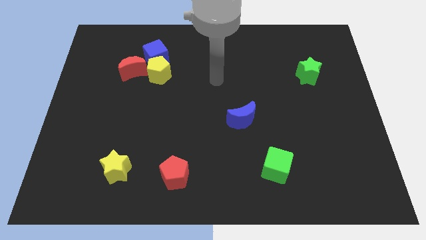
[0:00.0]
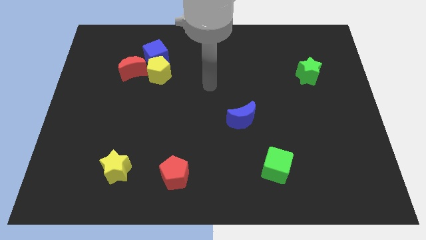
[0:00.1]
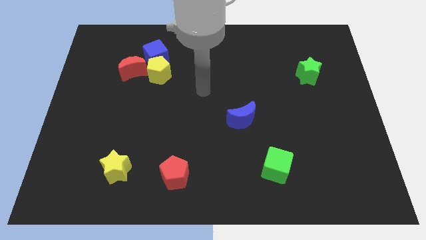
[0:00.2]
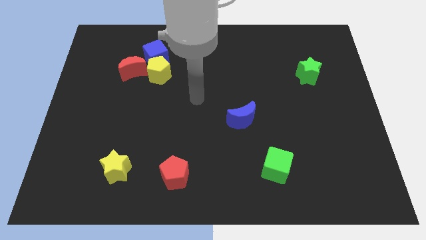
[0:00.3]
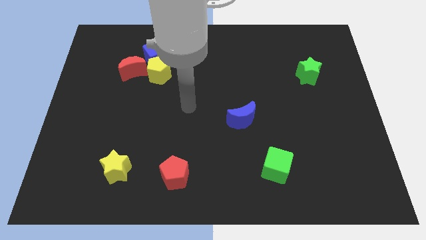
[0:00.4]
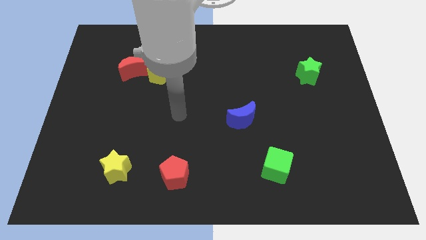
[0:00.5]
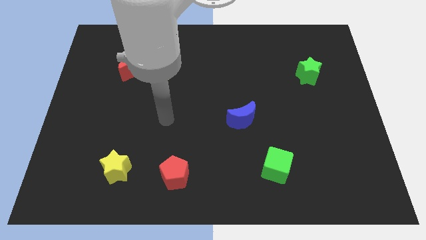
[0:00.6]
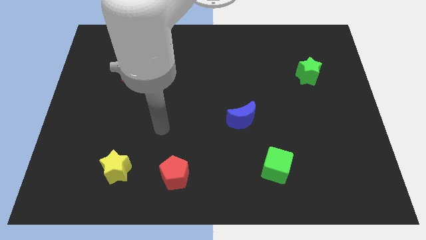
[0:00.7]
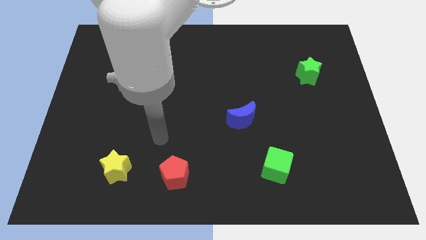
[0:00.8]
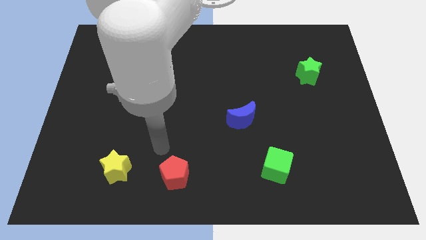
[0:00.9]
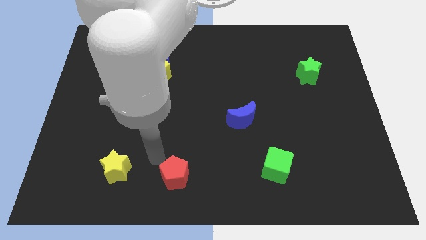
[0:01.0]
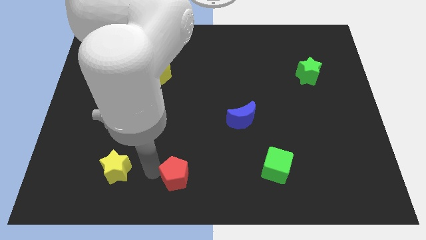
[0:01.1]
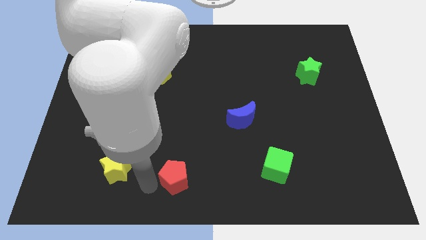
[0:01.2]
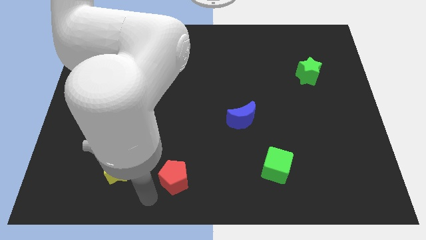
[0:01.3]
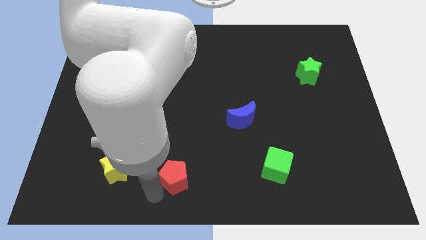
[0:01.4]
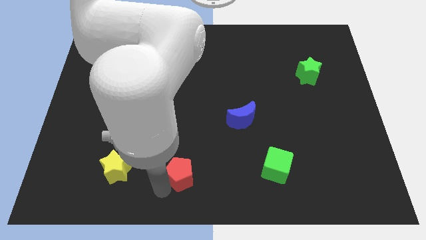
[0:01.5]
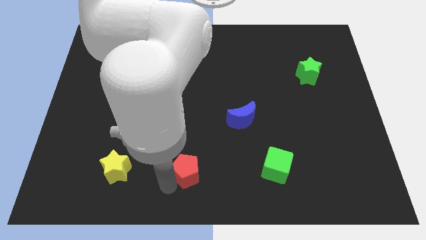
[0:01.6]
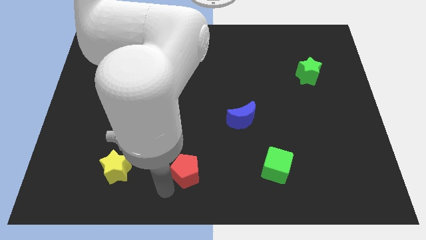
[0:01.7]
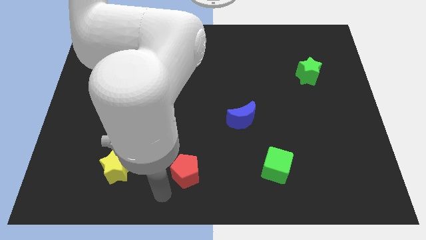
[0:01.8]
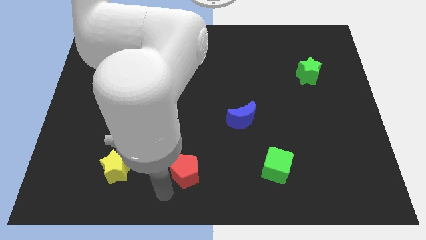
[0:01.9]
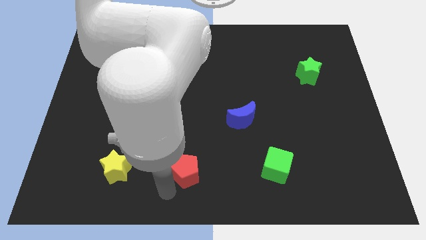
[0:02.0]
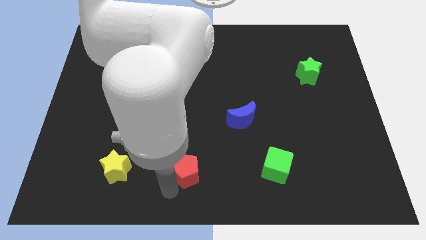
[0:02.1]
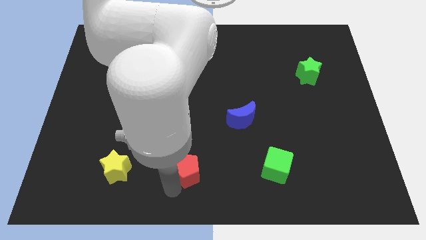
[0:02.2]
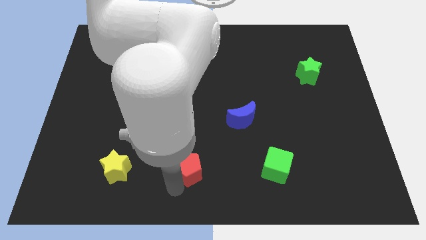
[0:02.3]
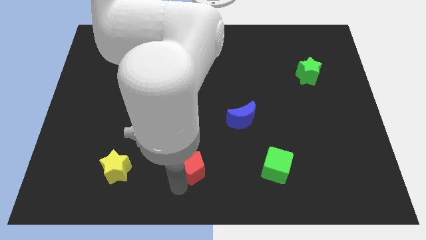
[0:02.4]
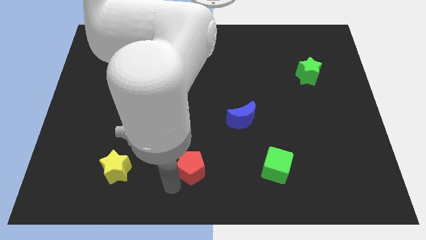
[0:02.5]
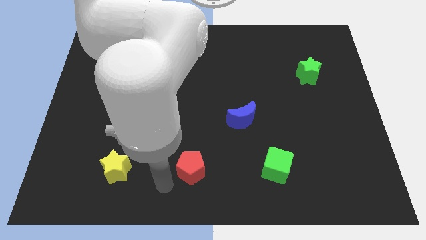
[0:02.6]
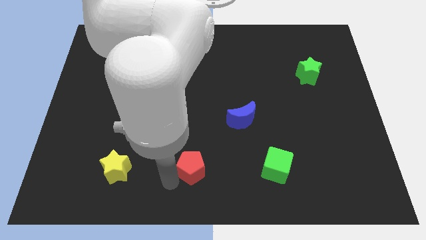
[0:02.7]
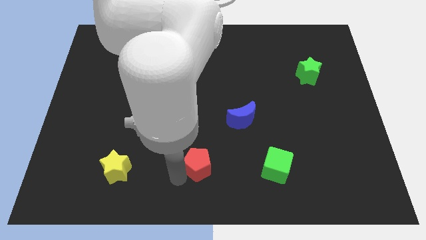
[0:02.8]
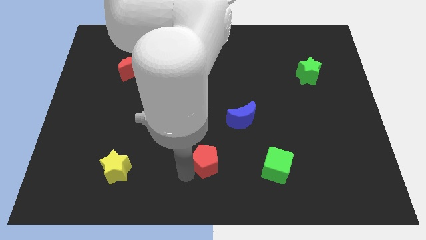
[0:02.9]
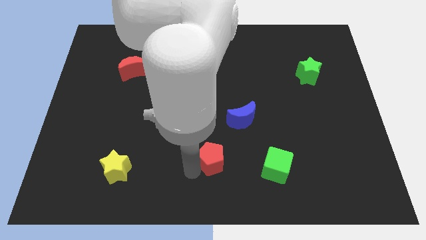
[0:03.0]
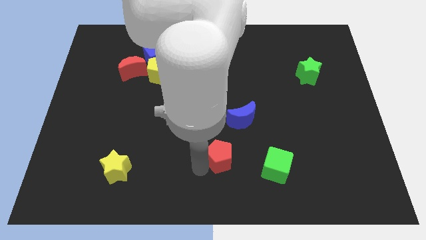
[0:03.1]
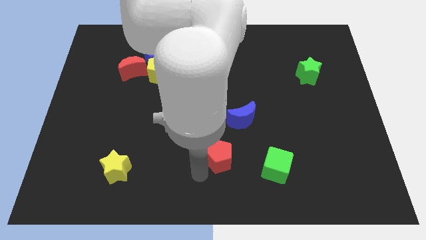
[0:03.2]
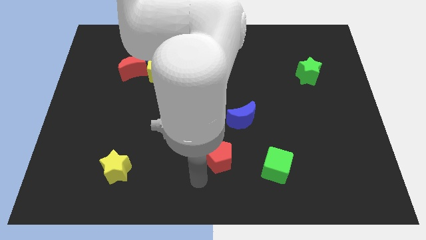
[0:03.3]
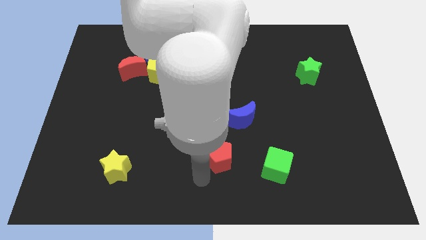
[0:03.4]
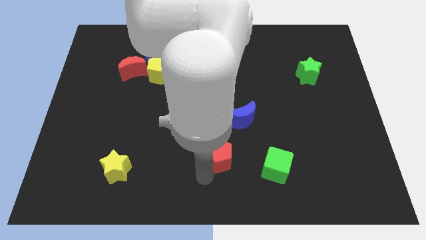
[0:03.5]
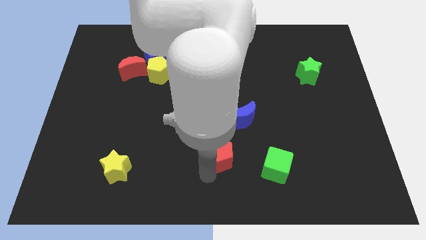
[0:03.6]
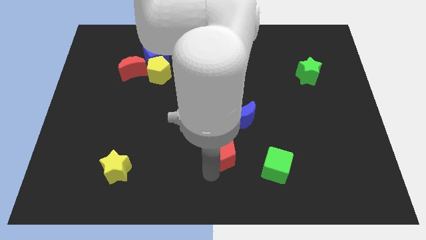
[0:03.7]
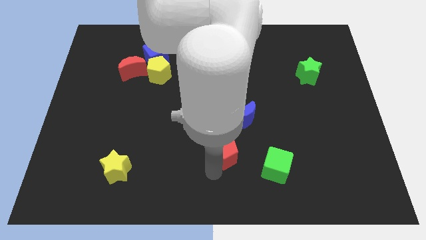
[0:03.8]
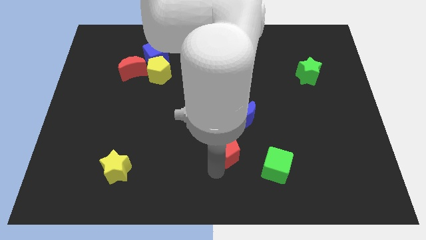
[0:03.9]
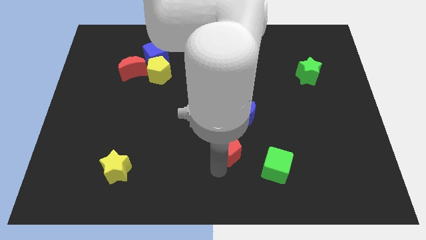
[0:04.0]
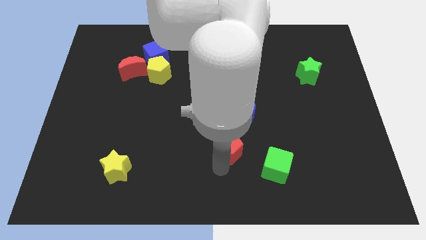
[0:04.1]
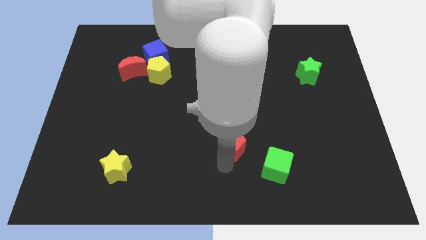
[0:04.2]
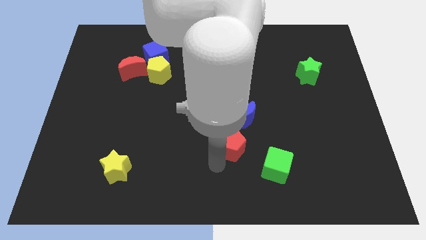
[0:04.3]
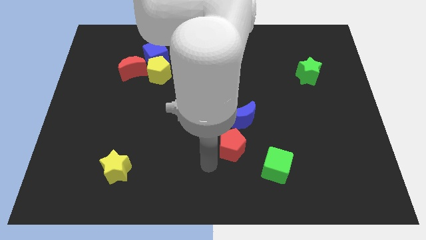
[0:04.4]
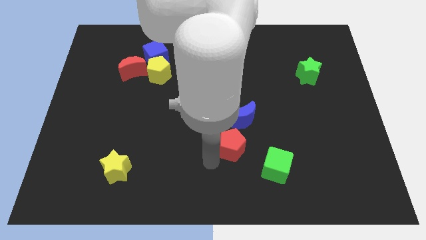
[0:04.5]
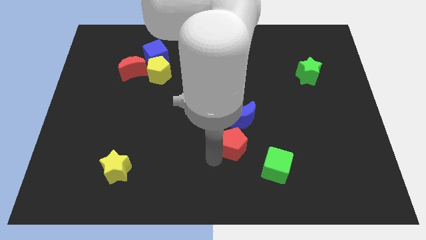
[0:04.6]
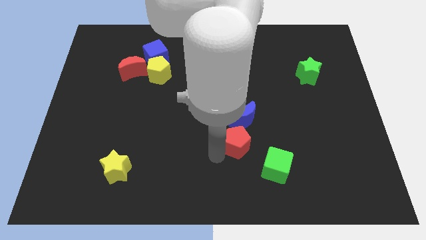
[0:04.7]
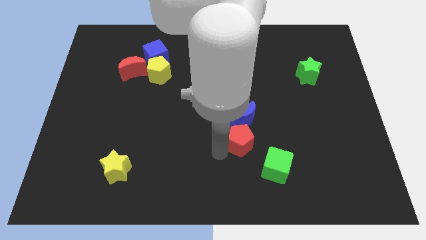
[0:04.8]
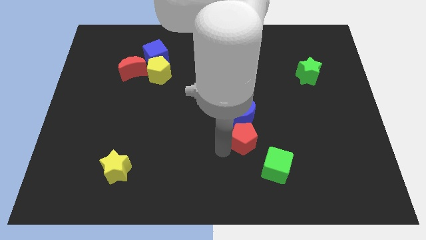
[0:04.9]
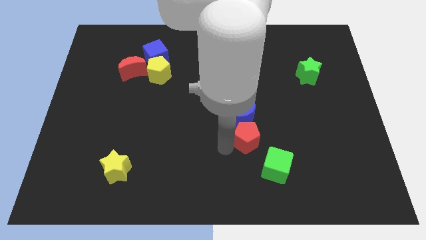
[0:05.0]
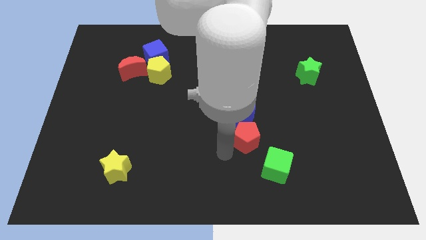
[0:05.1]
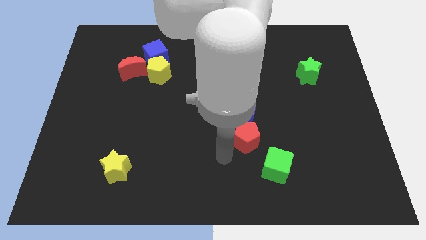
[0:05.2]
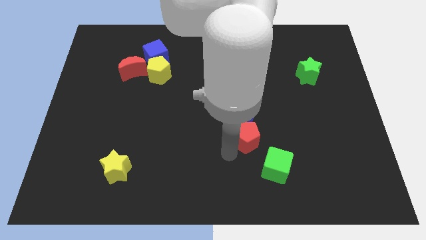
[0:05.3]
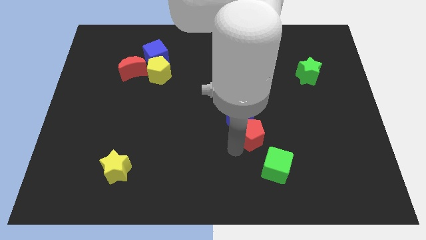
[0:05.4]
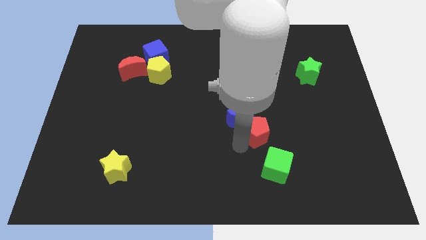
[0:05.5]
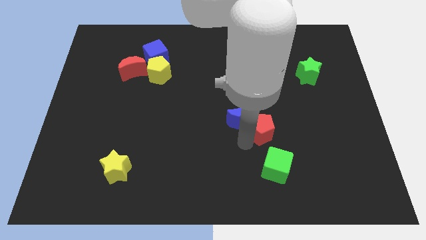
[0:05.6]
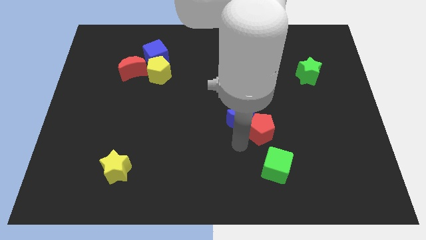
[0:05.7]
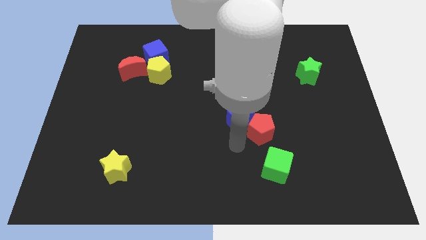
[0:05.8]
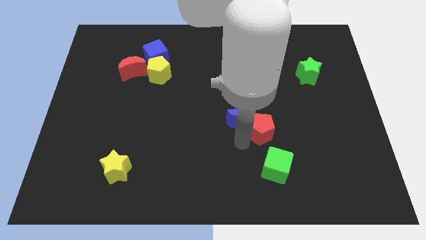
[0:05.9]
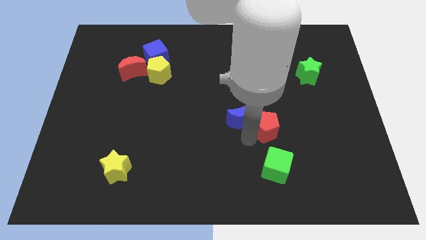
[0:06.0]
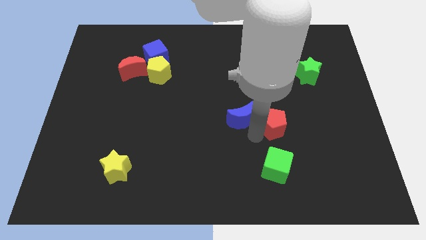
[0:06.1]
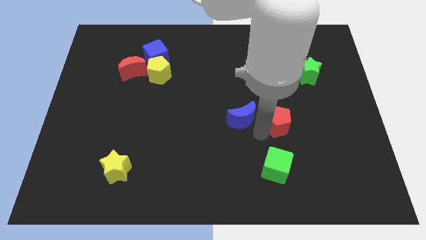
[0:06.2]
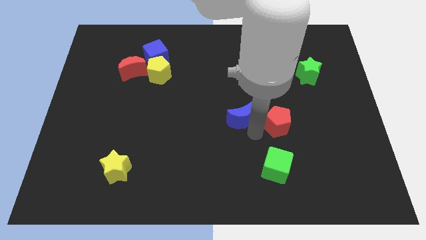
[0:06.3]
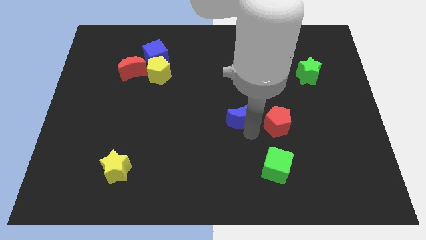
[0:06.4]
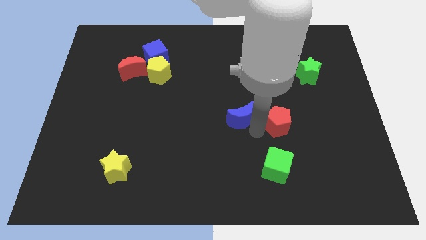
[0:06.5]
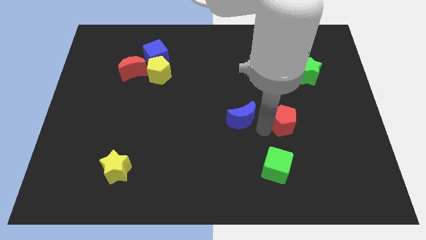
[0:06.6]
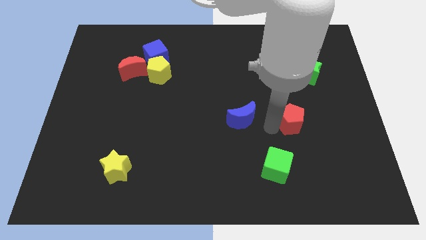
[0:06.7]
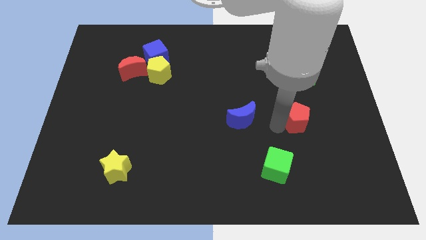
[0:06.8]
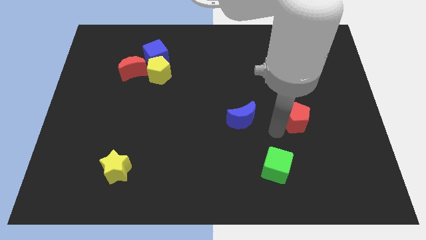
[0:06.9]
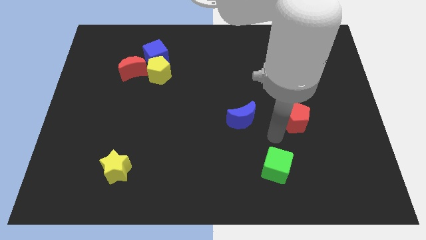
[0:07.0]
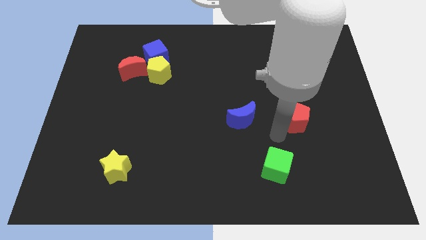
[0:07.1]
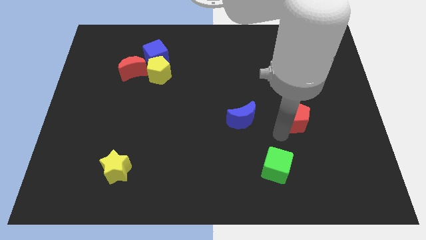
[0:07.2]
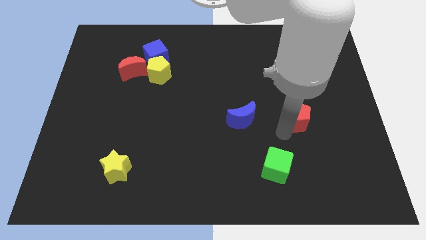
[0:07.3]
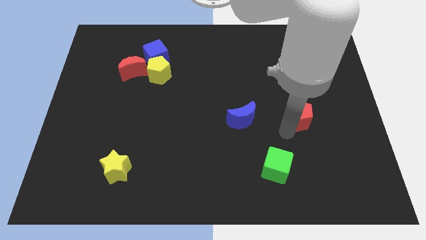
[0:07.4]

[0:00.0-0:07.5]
put the red pentagon to the bottom side of the green star
